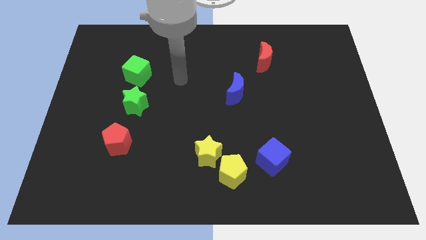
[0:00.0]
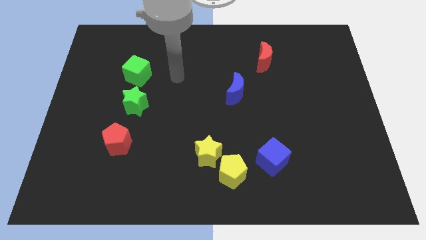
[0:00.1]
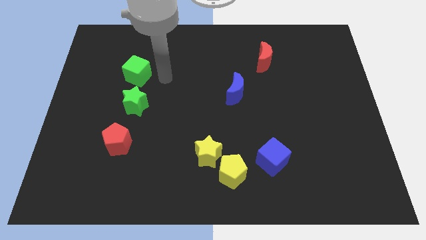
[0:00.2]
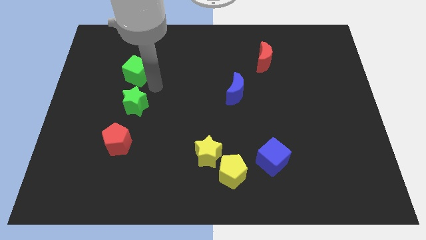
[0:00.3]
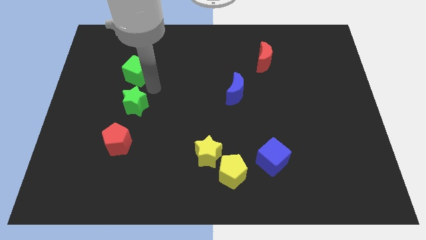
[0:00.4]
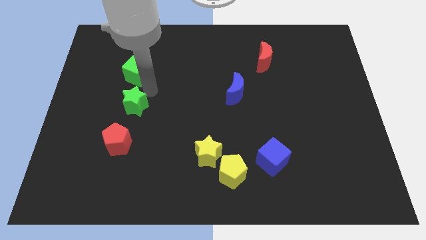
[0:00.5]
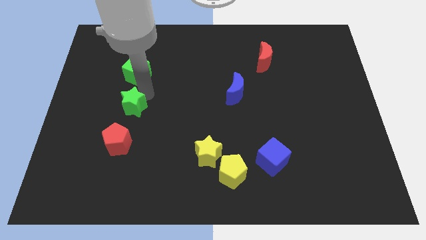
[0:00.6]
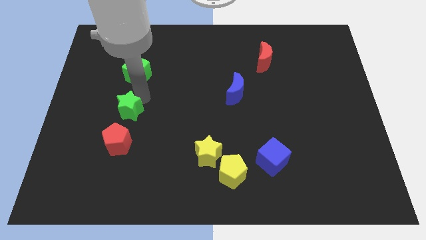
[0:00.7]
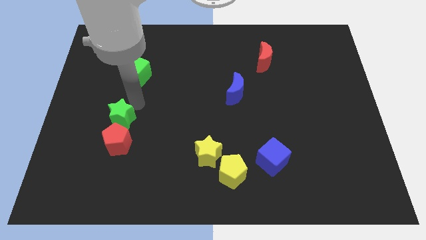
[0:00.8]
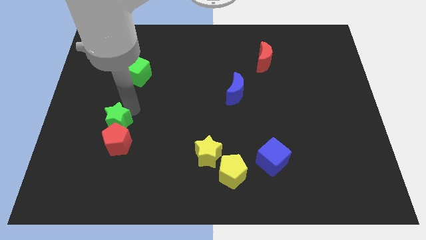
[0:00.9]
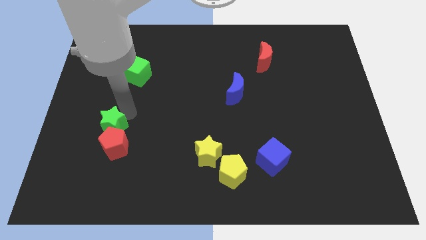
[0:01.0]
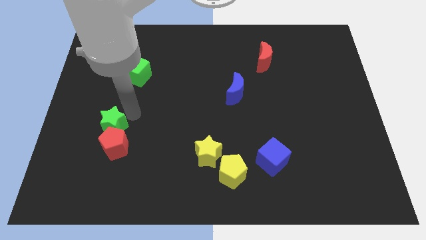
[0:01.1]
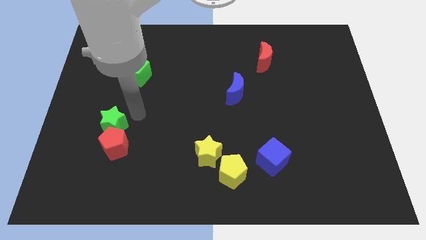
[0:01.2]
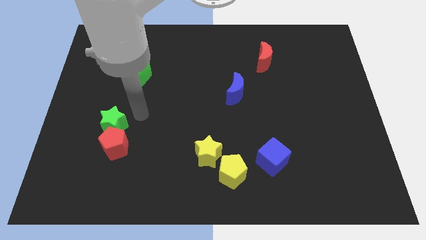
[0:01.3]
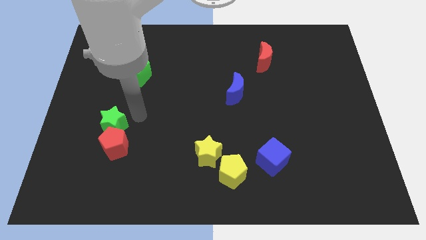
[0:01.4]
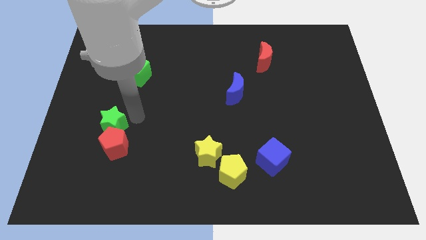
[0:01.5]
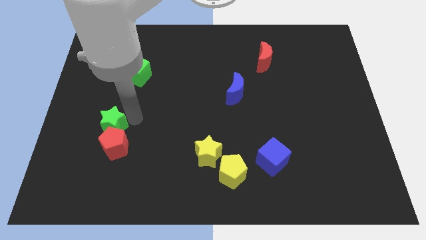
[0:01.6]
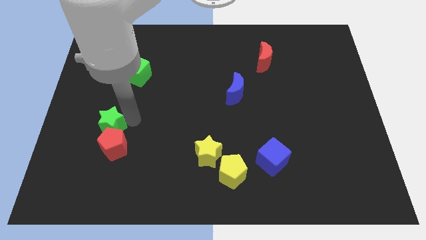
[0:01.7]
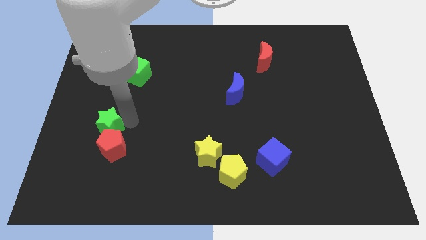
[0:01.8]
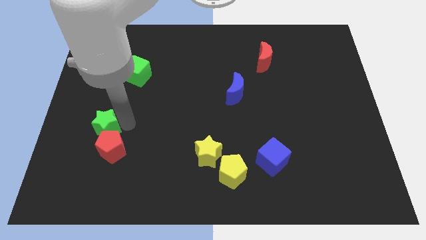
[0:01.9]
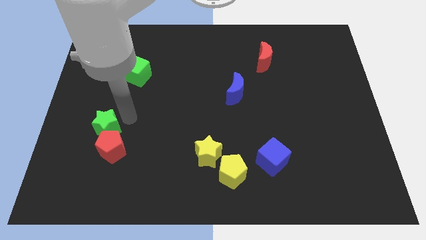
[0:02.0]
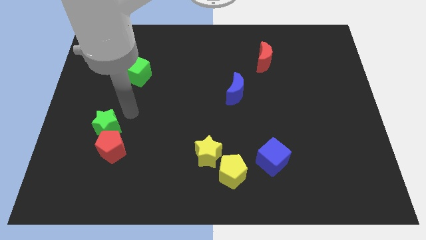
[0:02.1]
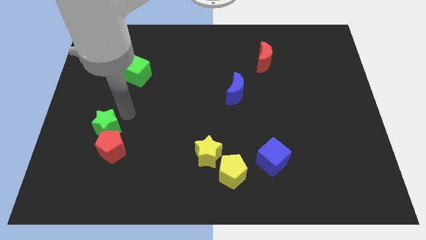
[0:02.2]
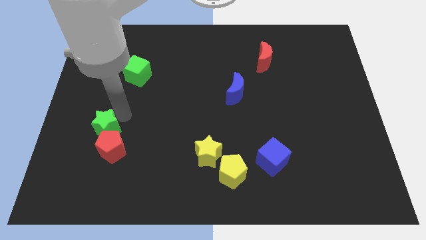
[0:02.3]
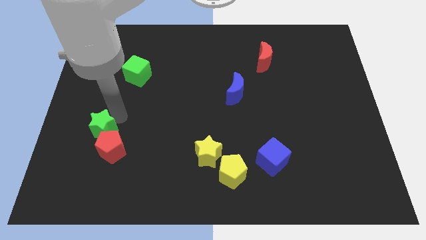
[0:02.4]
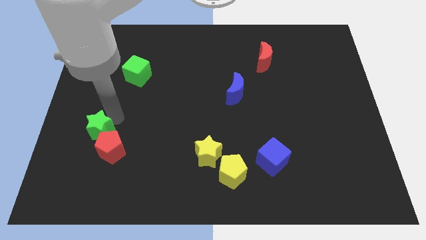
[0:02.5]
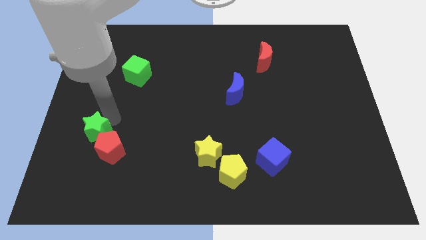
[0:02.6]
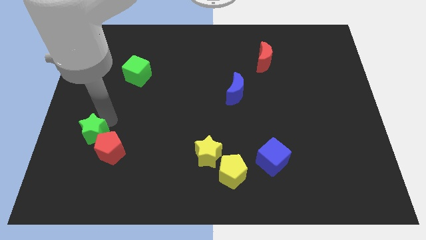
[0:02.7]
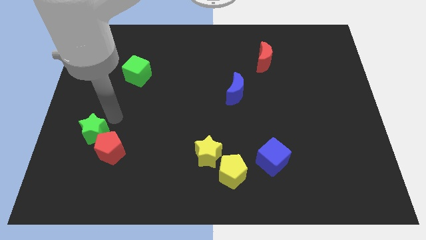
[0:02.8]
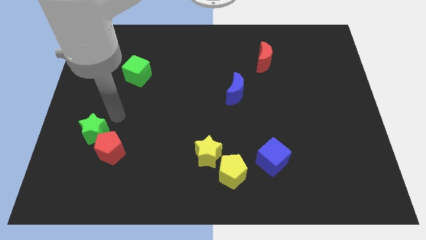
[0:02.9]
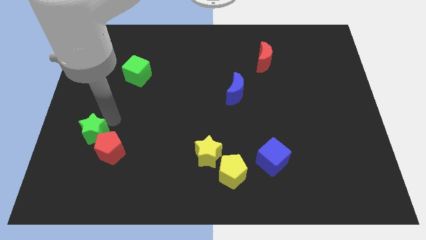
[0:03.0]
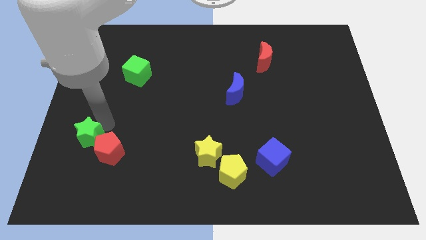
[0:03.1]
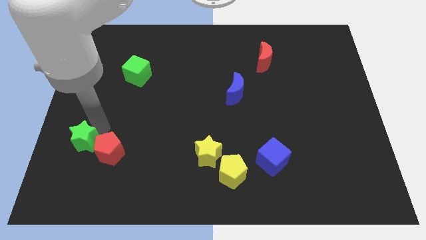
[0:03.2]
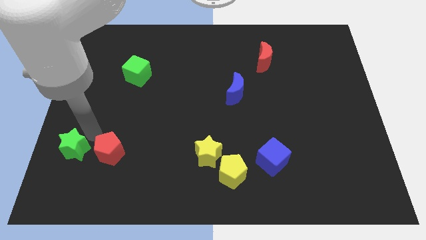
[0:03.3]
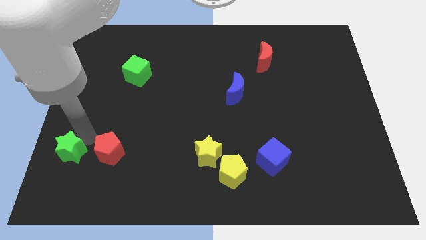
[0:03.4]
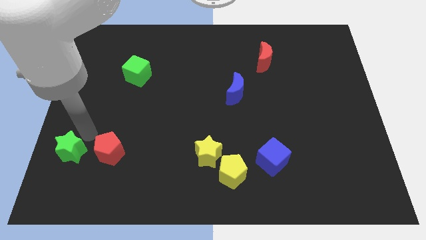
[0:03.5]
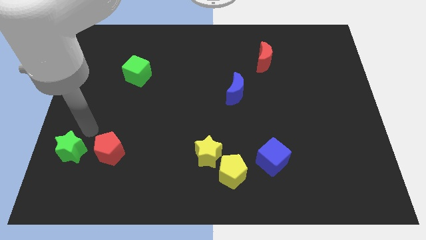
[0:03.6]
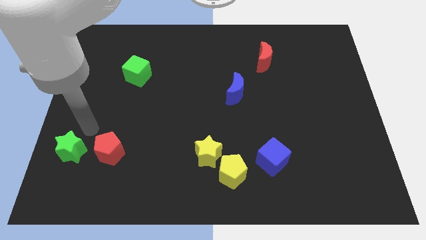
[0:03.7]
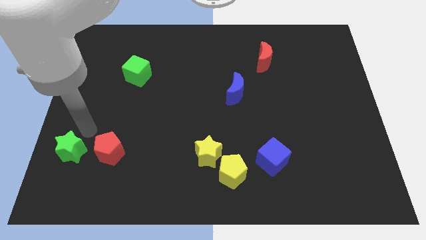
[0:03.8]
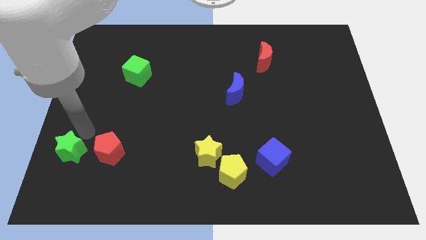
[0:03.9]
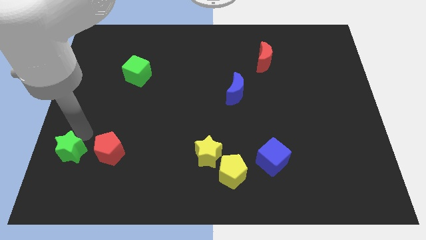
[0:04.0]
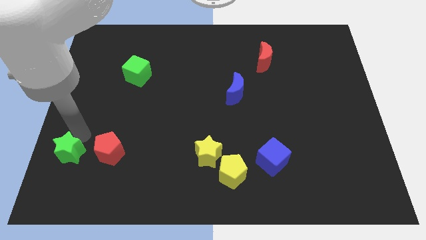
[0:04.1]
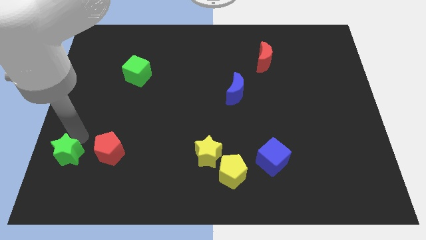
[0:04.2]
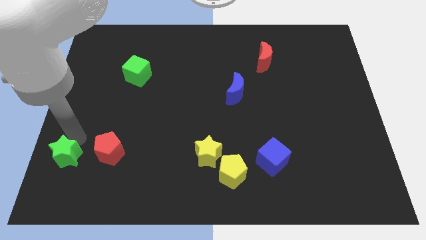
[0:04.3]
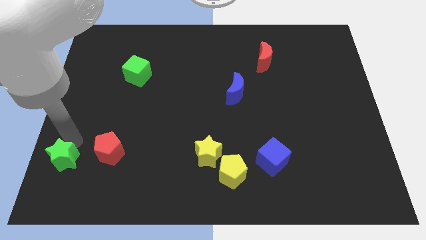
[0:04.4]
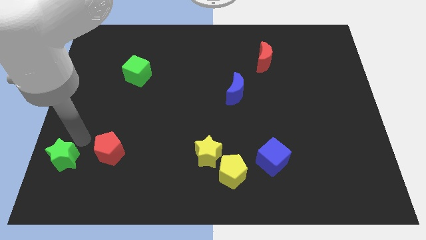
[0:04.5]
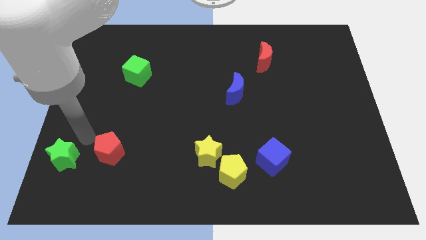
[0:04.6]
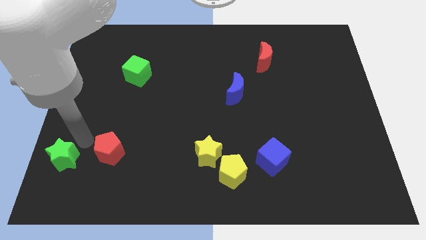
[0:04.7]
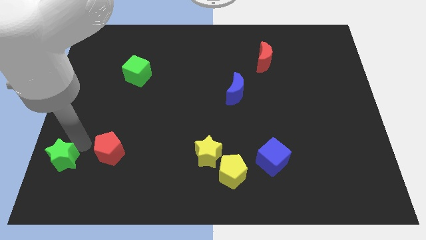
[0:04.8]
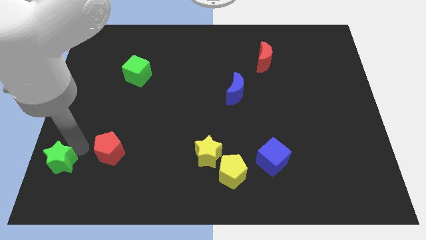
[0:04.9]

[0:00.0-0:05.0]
push the green star to the lower left corner

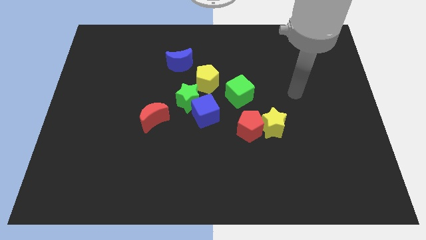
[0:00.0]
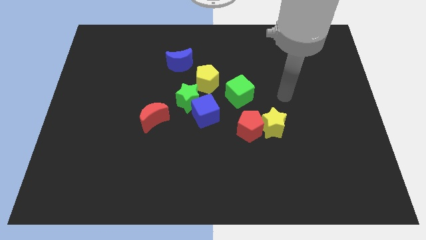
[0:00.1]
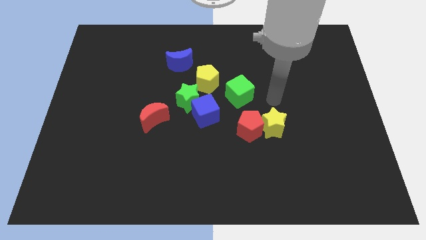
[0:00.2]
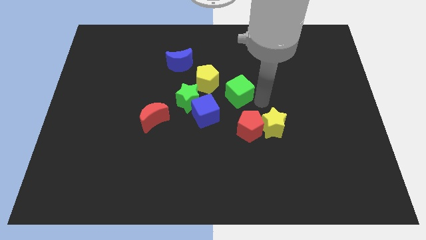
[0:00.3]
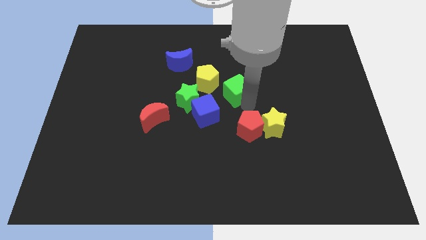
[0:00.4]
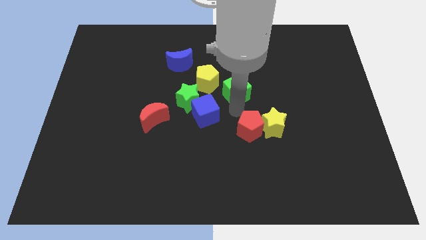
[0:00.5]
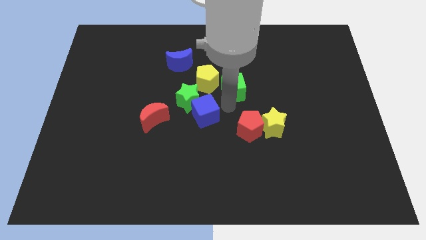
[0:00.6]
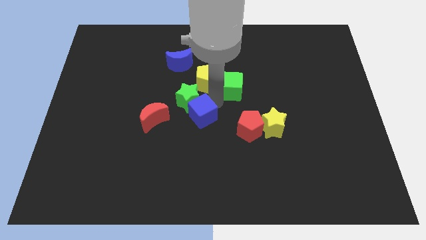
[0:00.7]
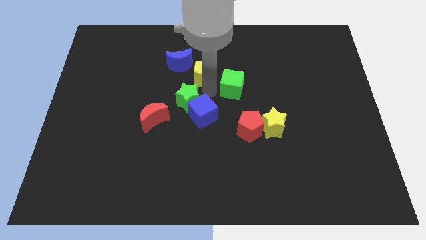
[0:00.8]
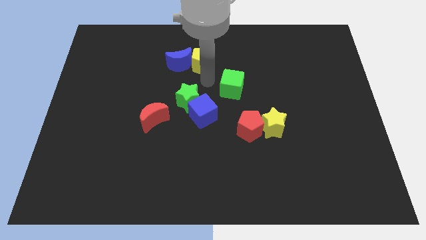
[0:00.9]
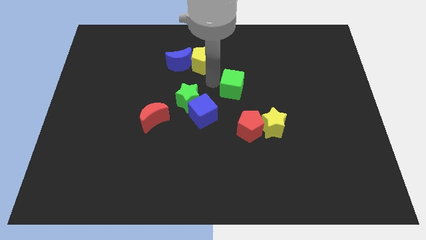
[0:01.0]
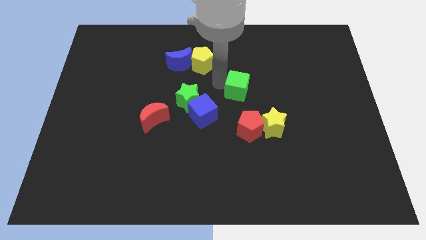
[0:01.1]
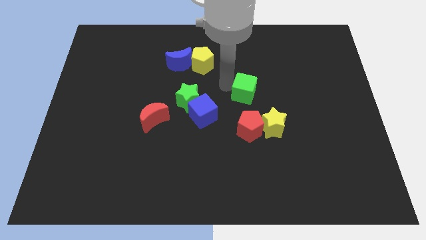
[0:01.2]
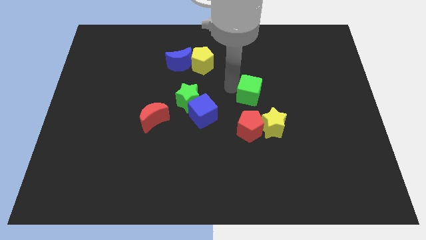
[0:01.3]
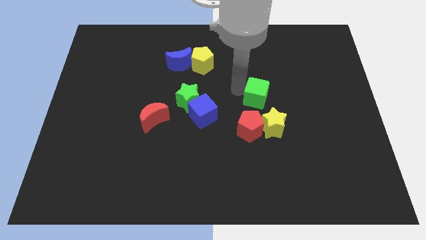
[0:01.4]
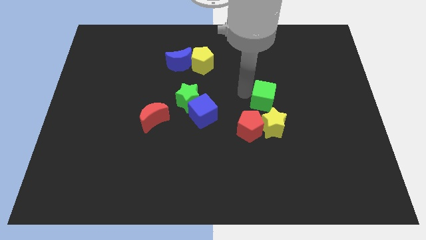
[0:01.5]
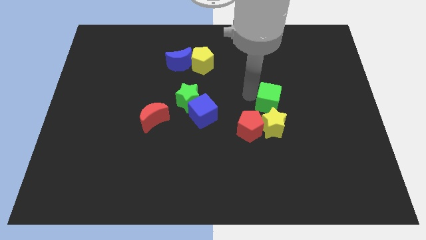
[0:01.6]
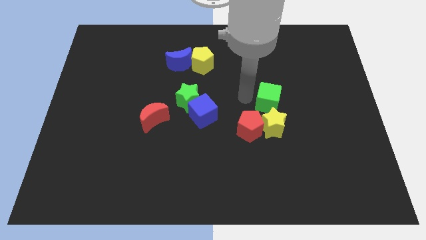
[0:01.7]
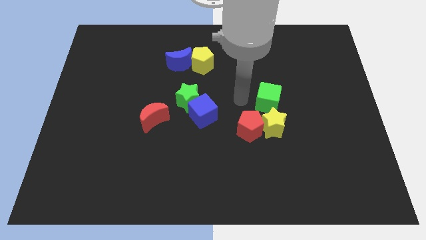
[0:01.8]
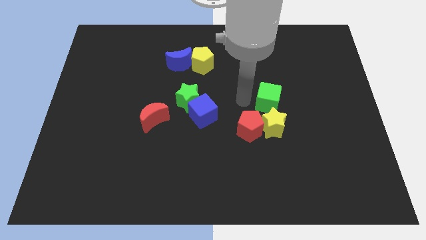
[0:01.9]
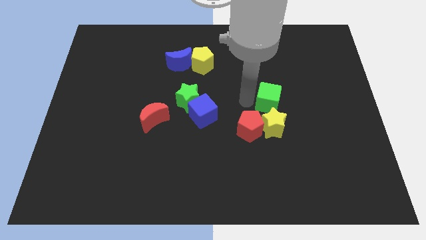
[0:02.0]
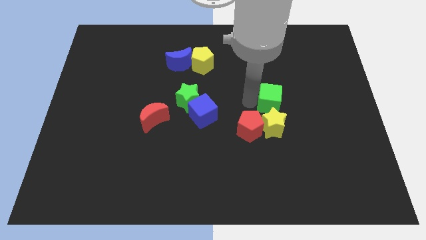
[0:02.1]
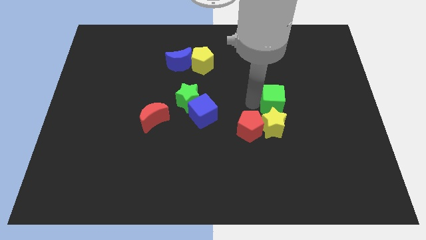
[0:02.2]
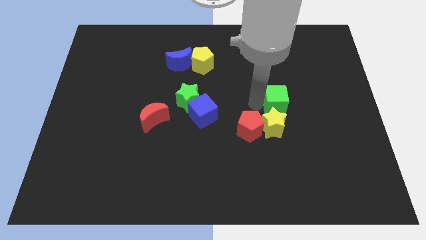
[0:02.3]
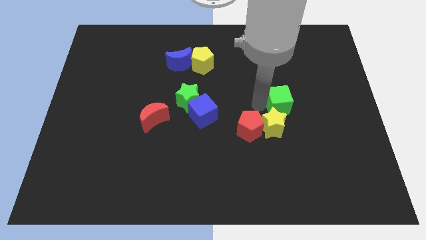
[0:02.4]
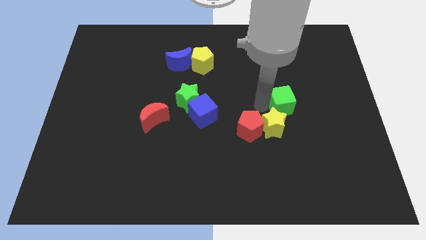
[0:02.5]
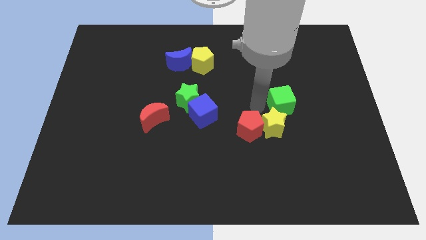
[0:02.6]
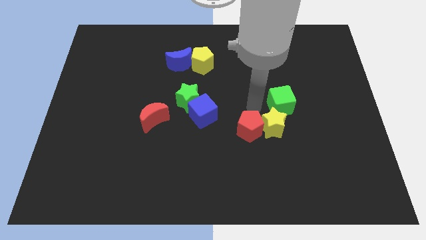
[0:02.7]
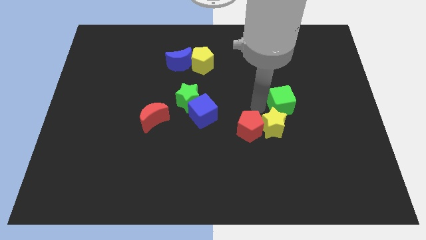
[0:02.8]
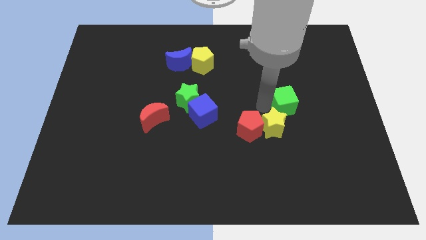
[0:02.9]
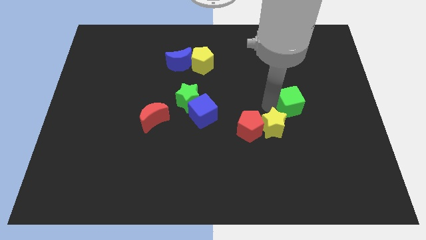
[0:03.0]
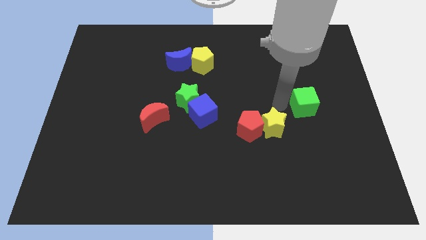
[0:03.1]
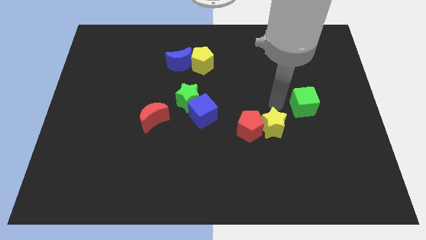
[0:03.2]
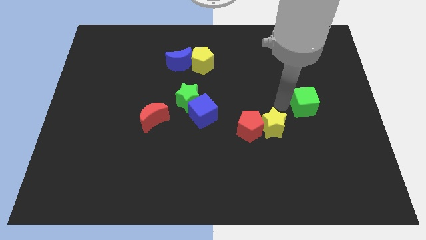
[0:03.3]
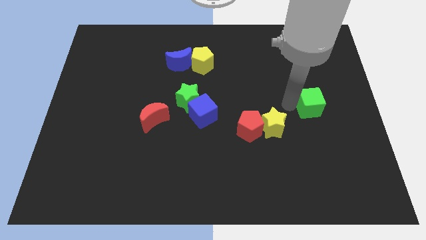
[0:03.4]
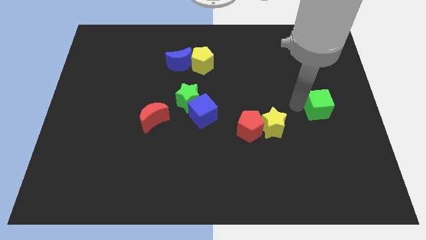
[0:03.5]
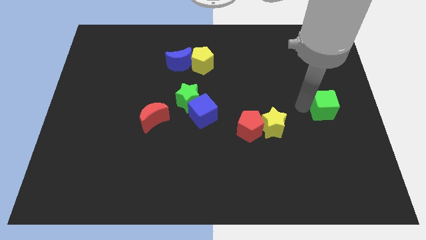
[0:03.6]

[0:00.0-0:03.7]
slide the green cube to the right side of the board
